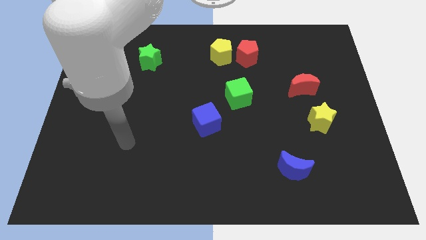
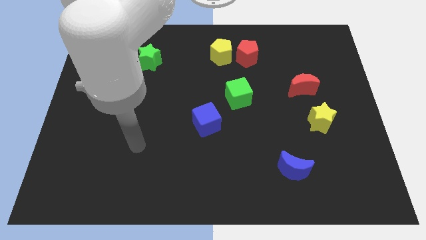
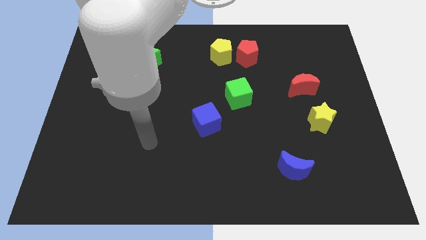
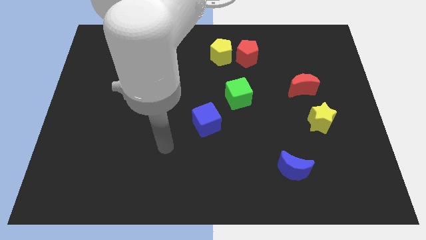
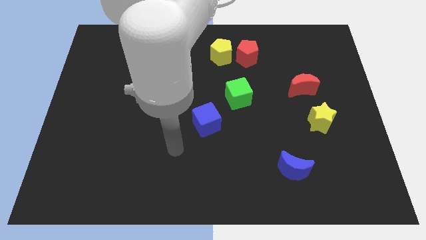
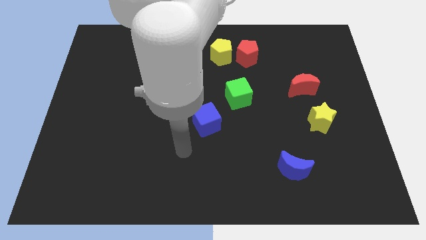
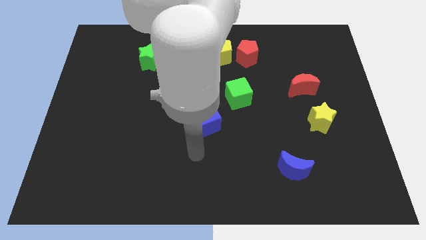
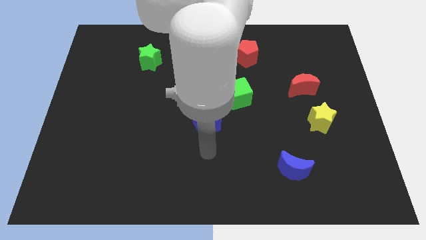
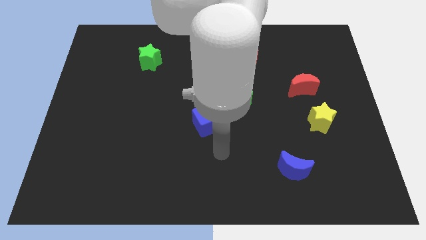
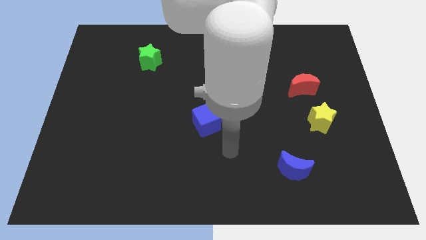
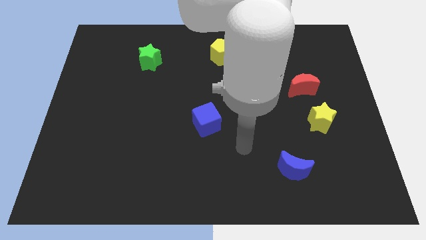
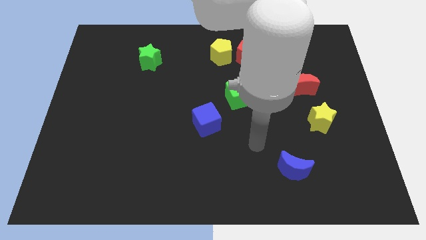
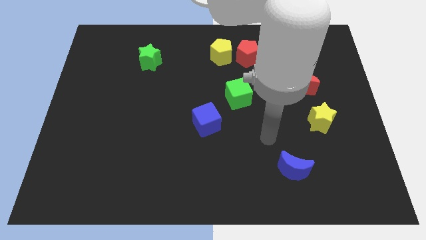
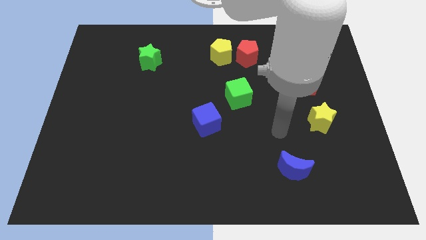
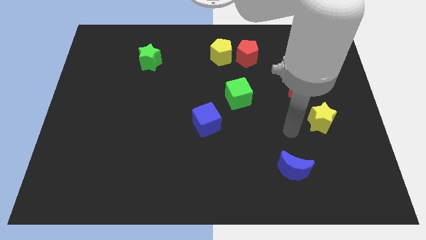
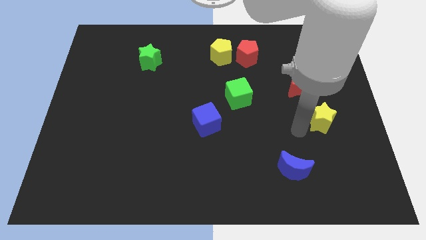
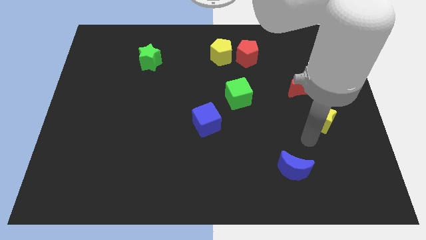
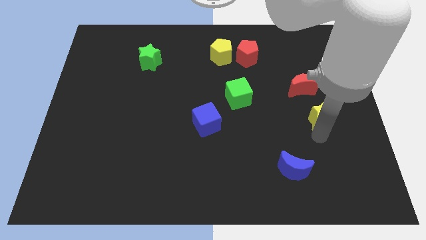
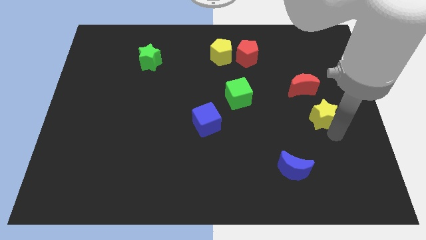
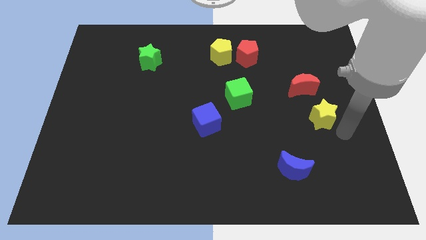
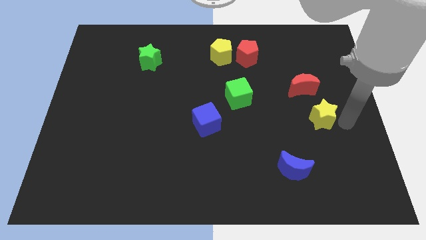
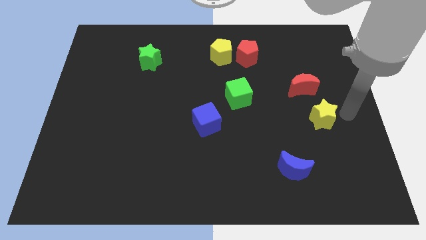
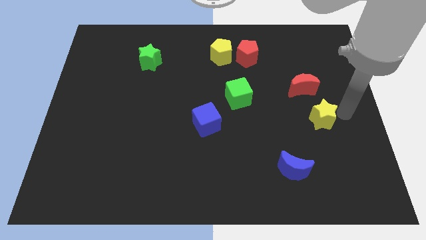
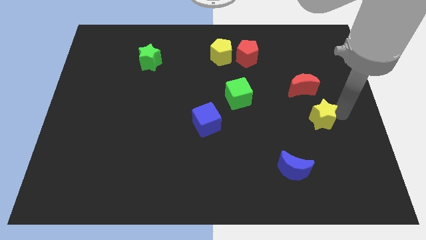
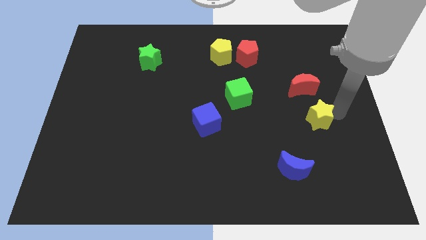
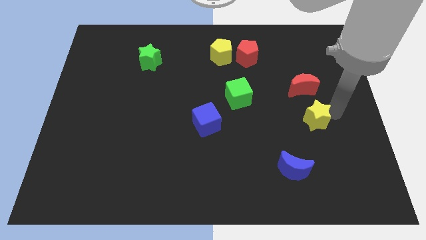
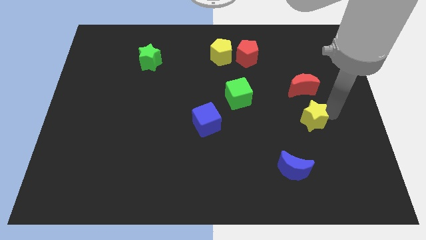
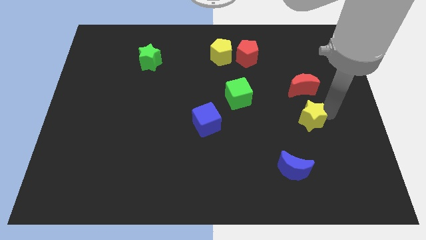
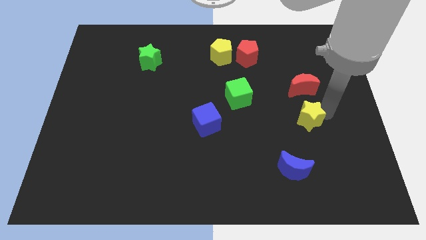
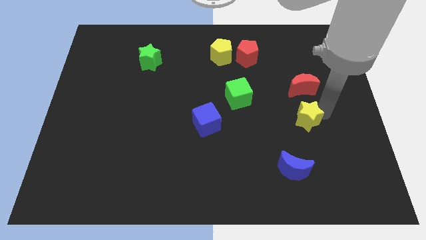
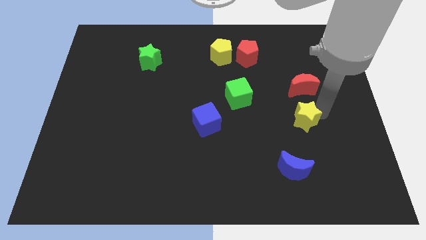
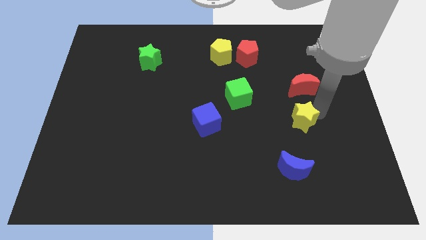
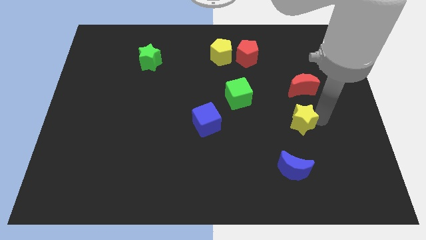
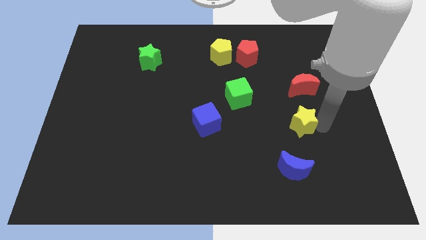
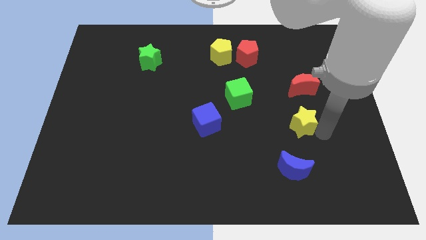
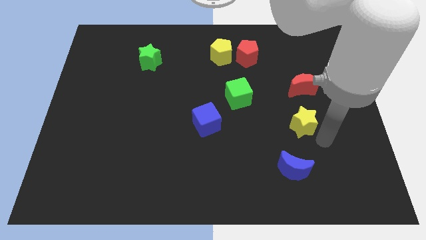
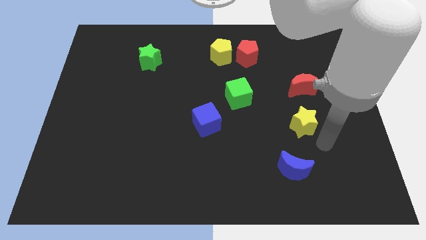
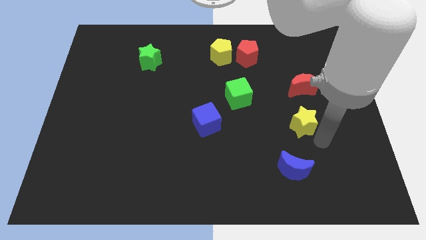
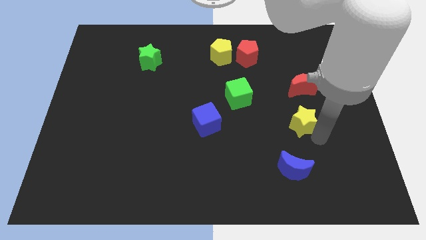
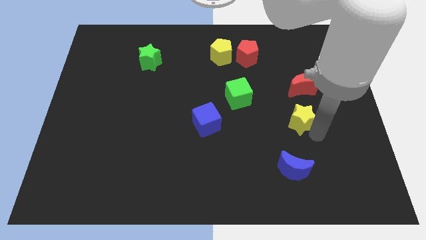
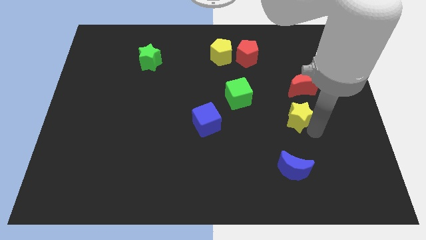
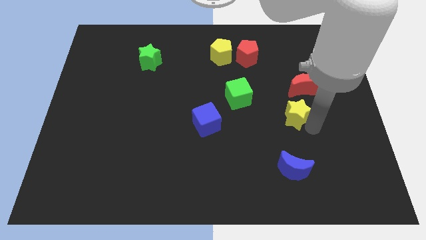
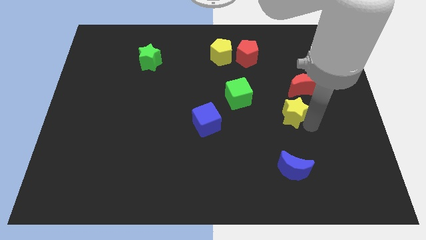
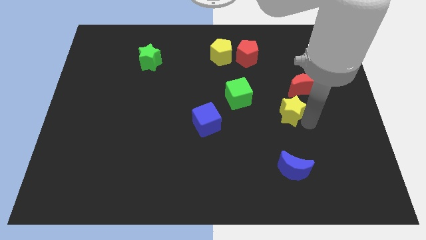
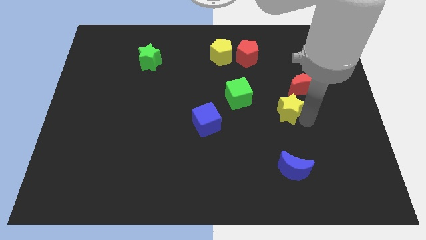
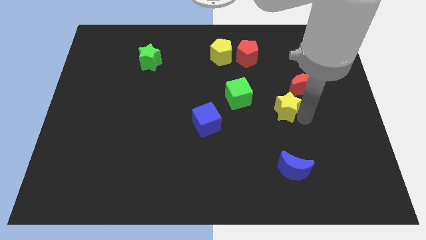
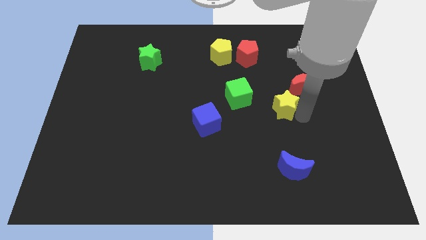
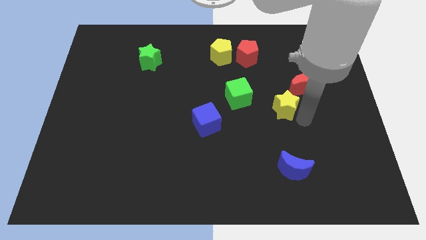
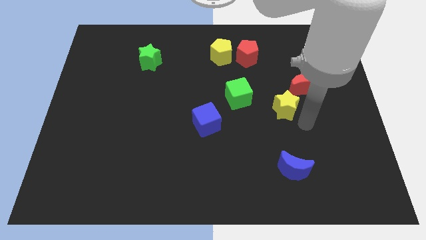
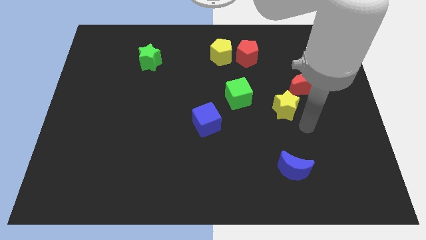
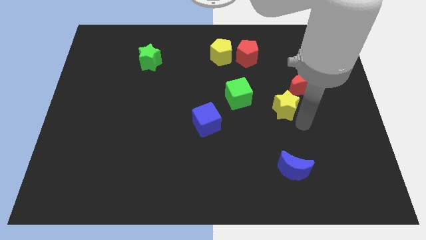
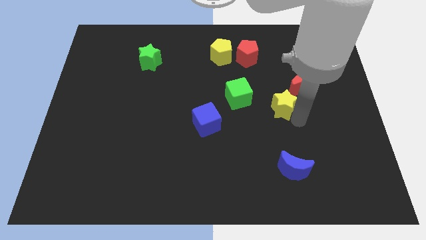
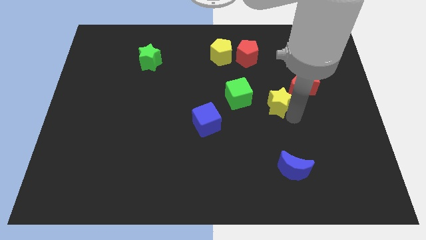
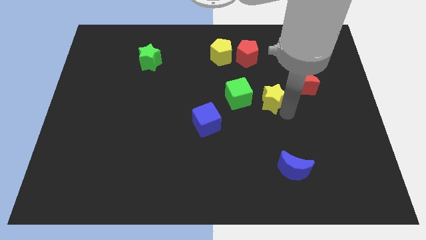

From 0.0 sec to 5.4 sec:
move the yellow star left of the red moon

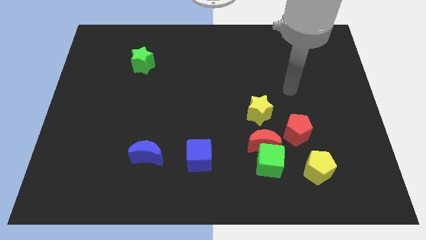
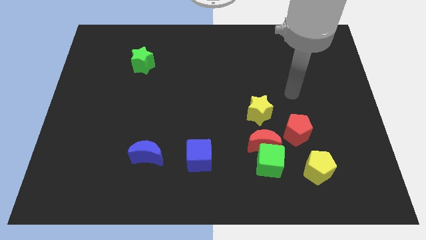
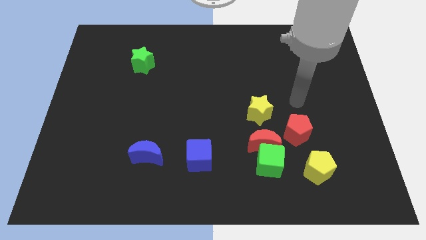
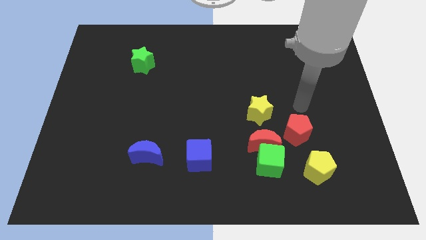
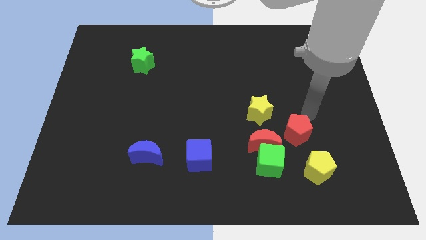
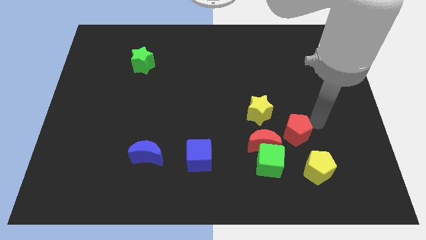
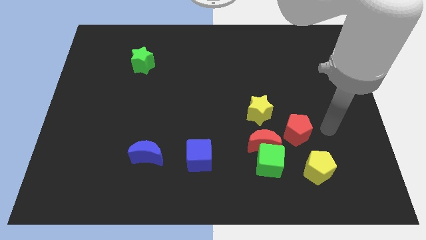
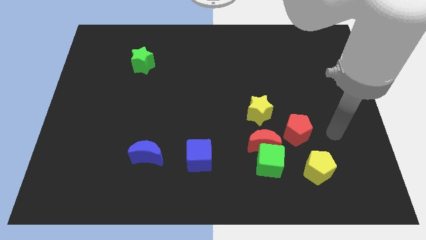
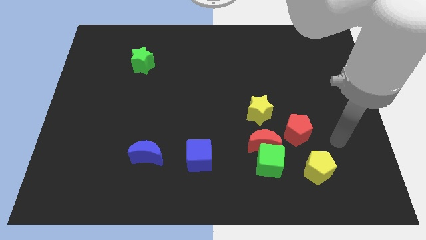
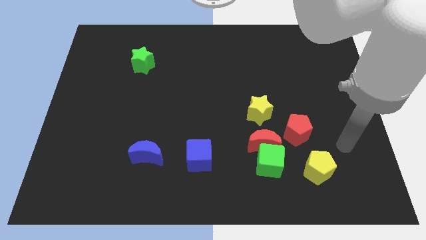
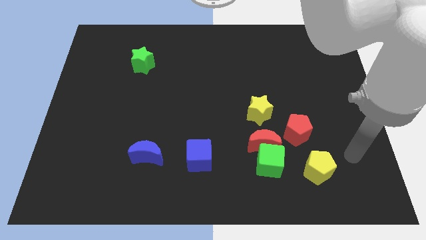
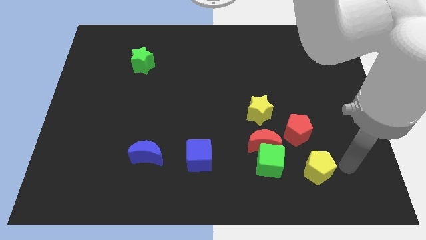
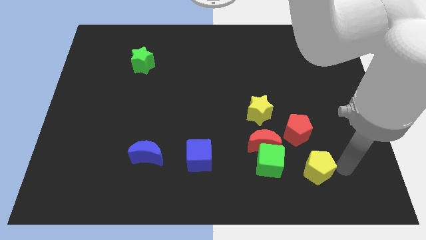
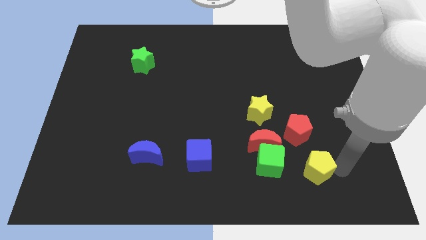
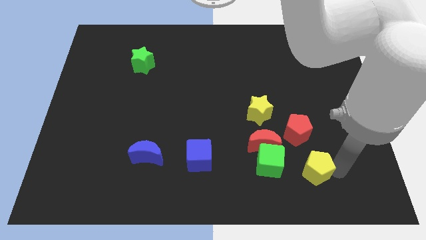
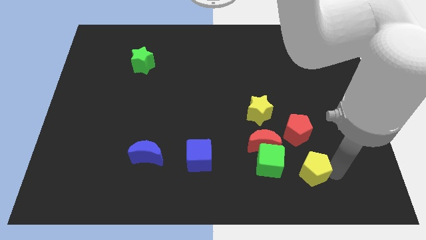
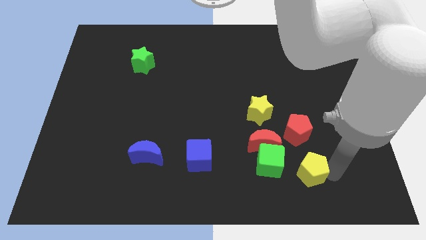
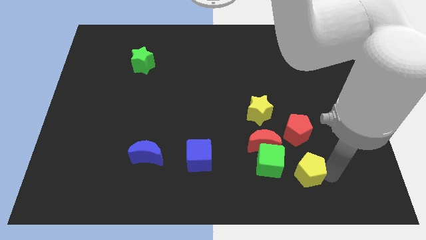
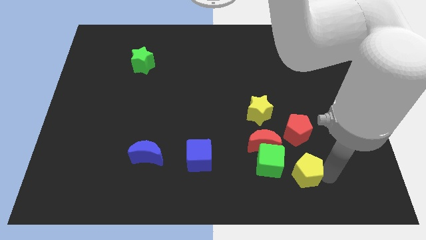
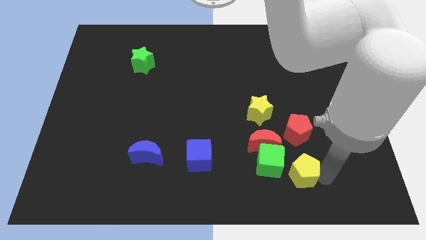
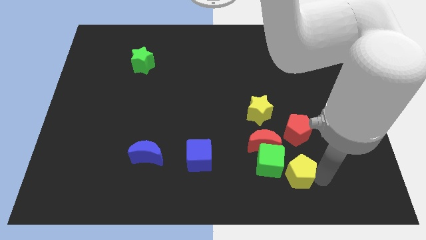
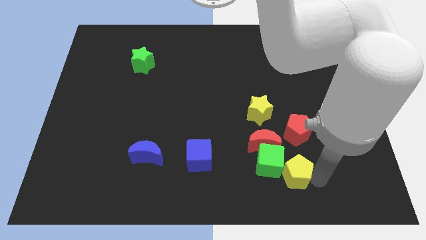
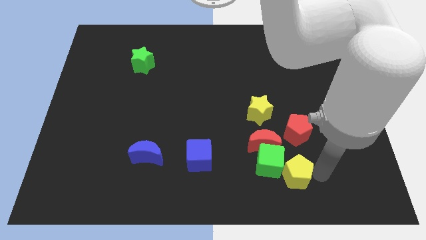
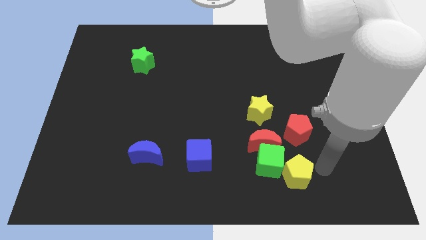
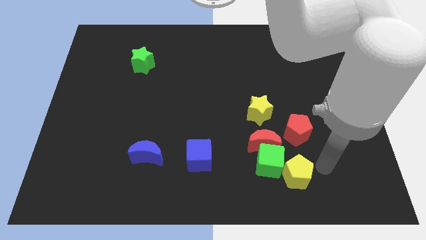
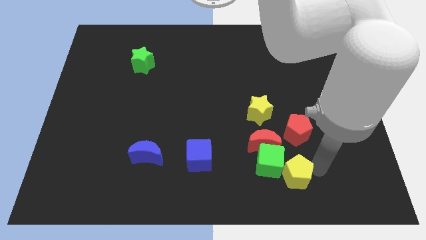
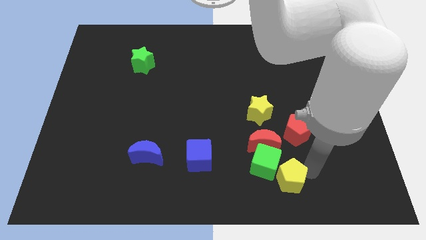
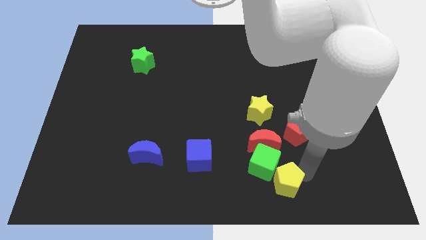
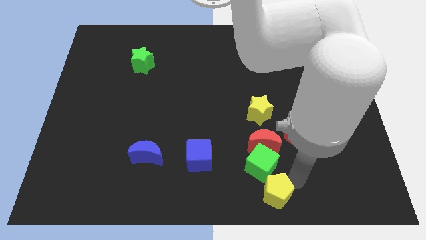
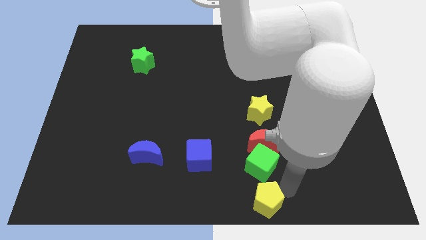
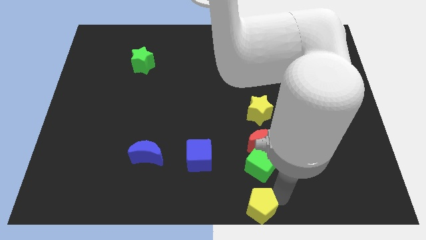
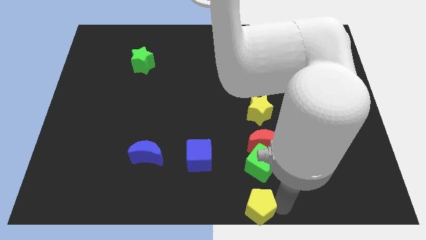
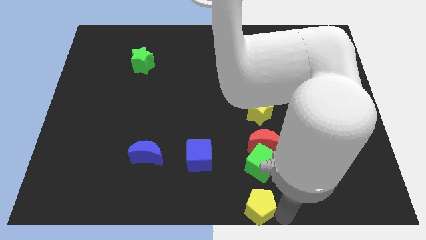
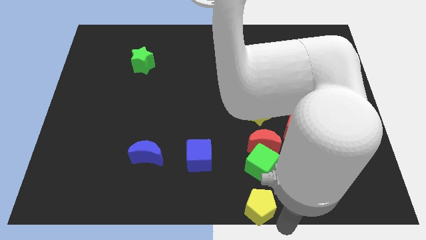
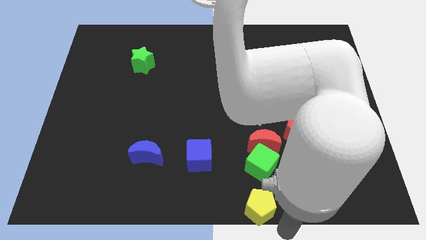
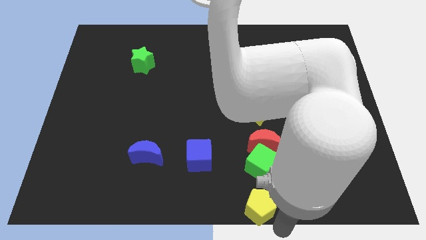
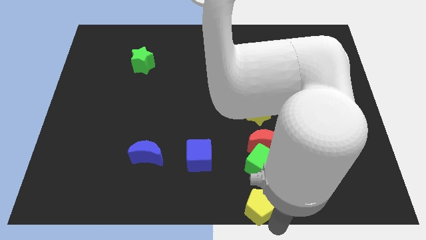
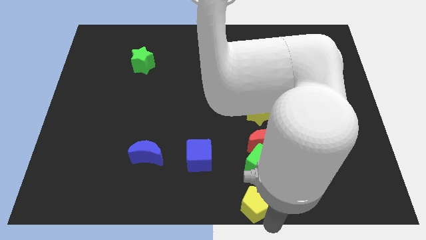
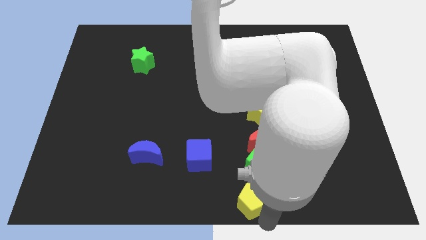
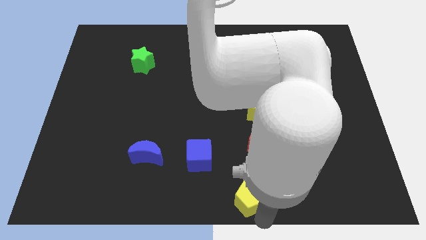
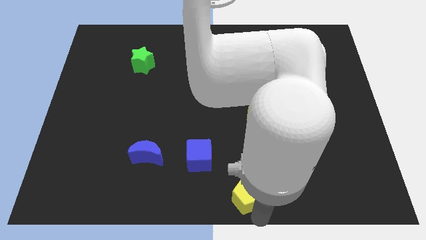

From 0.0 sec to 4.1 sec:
move the yellow pentagon to the bottom right of the blue cube
